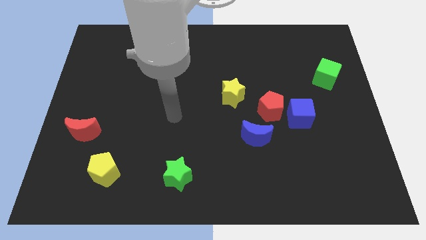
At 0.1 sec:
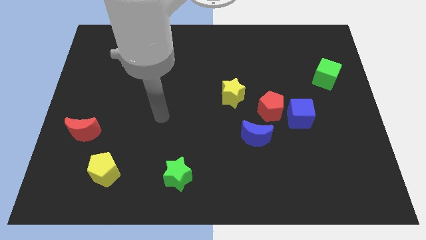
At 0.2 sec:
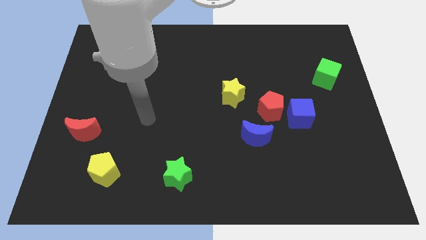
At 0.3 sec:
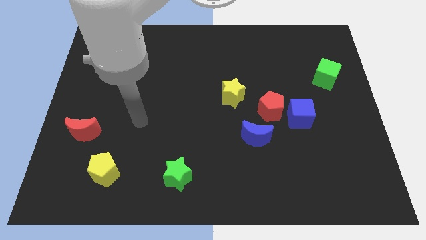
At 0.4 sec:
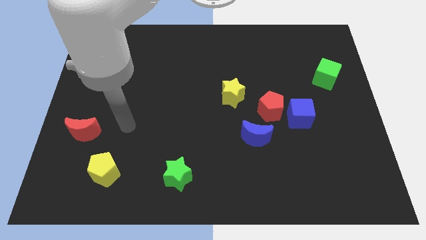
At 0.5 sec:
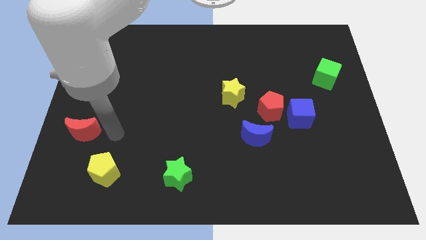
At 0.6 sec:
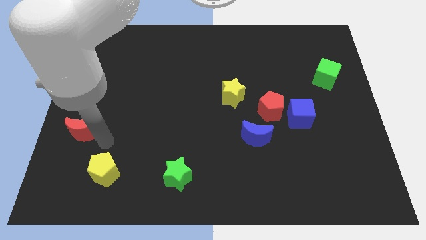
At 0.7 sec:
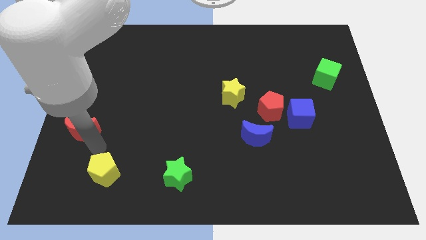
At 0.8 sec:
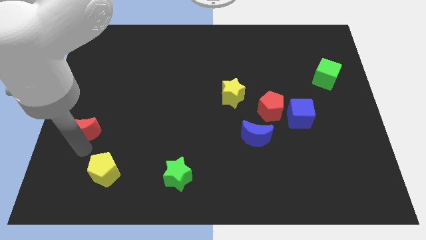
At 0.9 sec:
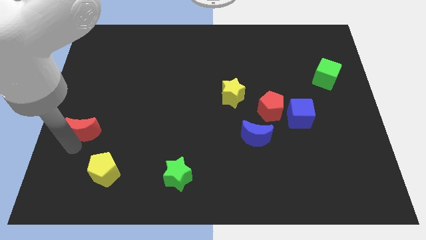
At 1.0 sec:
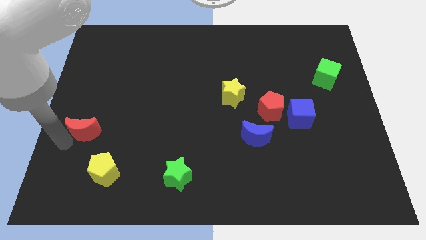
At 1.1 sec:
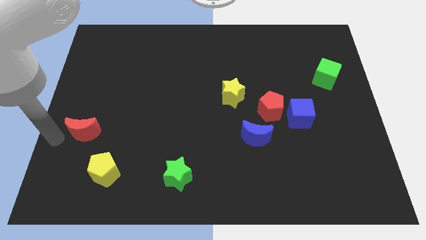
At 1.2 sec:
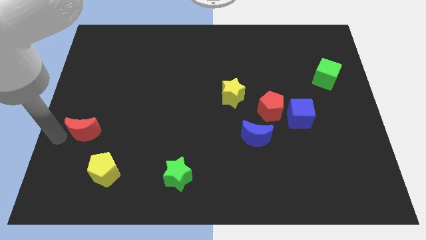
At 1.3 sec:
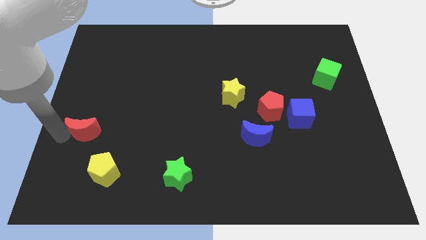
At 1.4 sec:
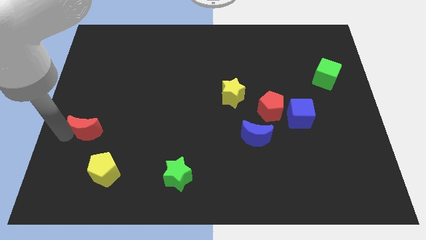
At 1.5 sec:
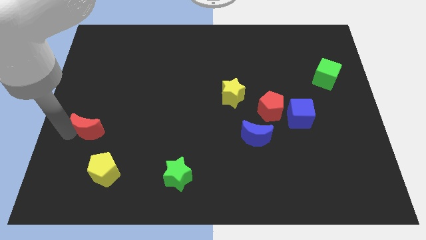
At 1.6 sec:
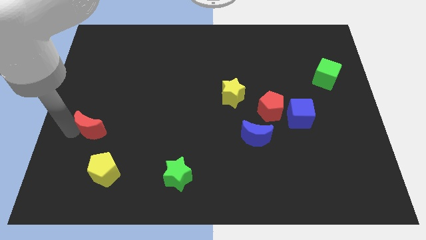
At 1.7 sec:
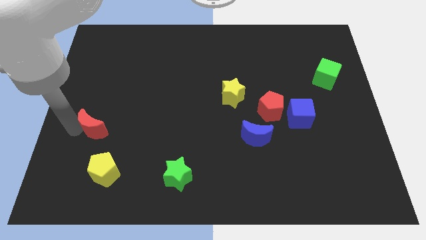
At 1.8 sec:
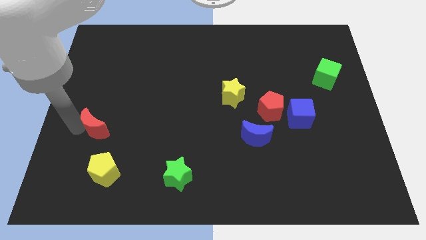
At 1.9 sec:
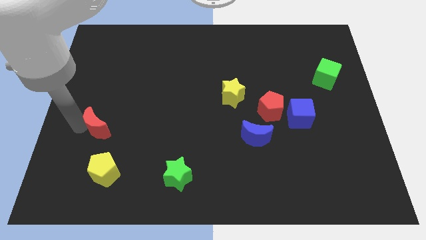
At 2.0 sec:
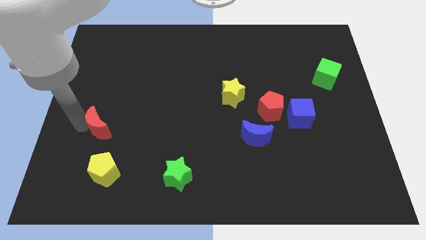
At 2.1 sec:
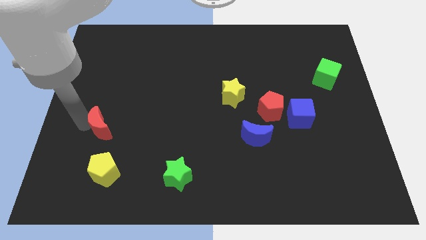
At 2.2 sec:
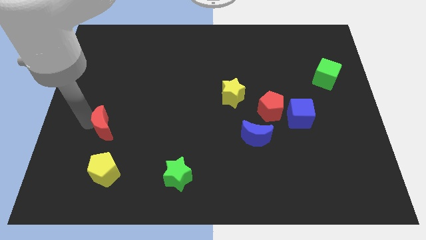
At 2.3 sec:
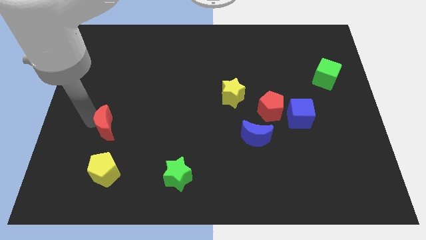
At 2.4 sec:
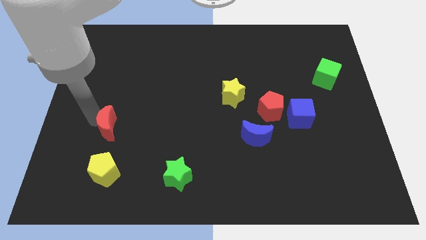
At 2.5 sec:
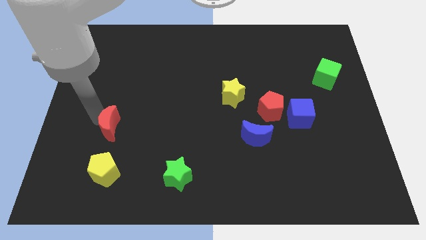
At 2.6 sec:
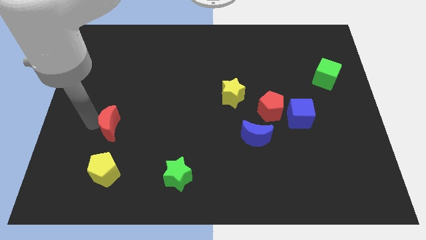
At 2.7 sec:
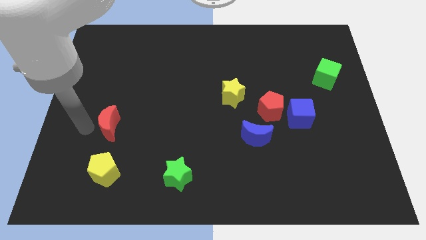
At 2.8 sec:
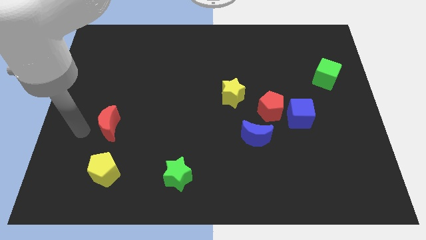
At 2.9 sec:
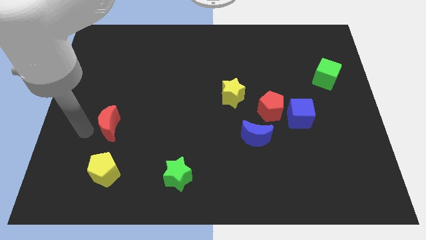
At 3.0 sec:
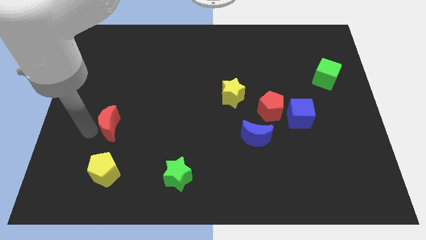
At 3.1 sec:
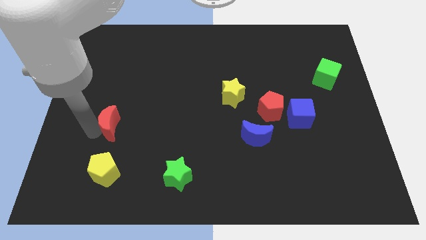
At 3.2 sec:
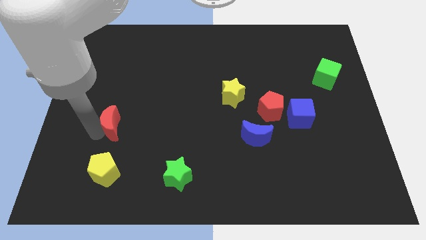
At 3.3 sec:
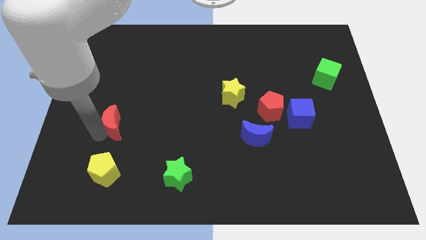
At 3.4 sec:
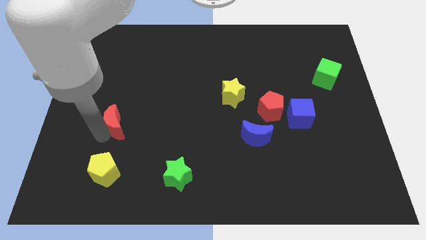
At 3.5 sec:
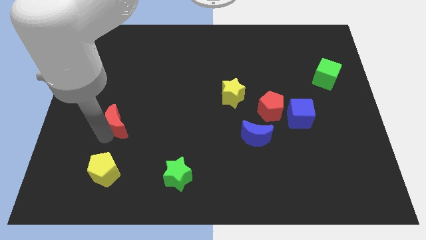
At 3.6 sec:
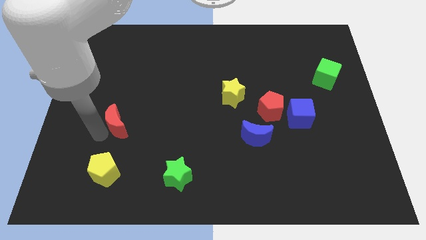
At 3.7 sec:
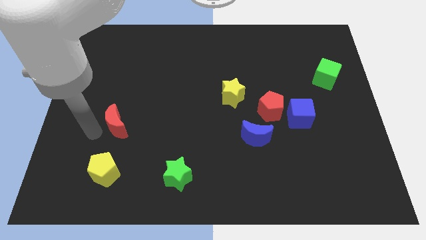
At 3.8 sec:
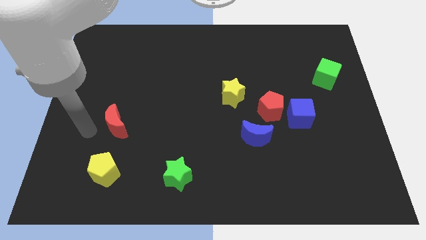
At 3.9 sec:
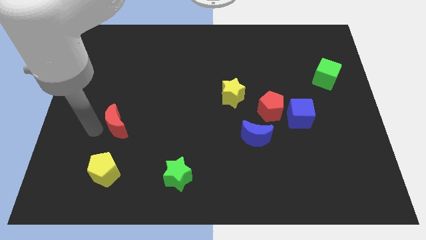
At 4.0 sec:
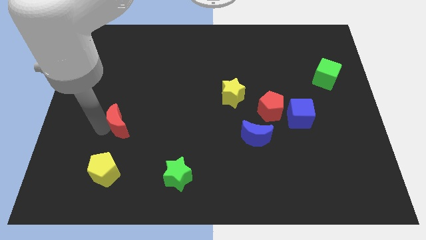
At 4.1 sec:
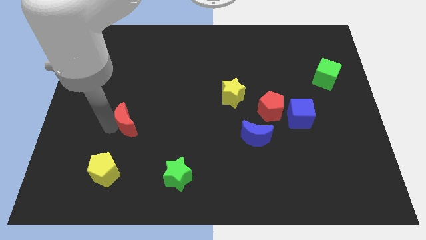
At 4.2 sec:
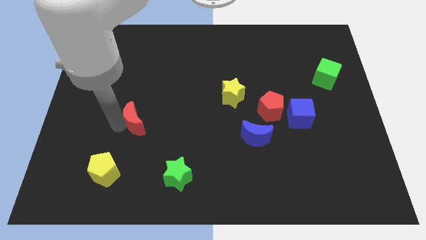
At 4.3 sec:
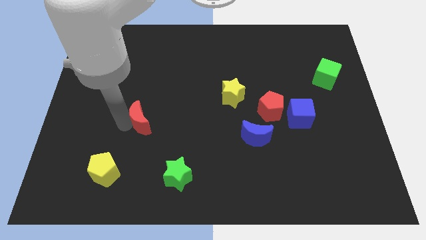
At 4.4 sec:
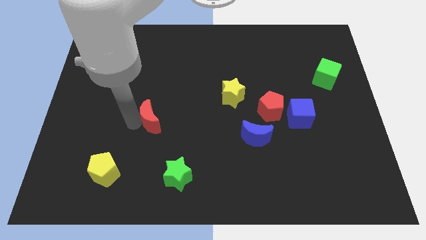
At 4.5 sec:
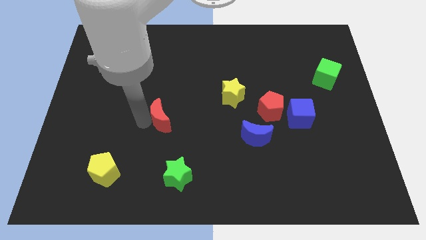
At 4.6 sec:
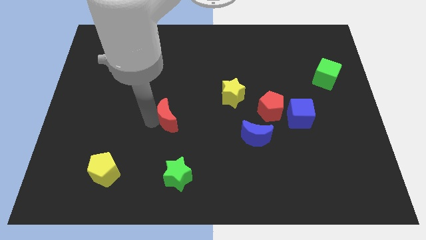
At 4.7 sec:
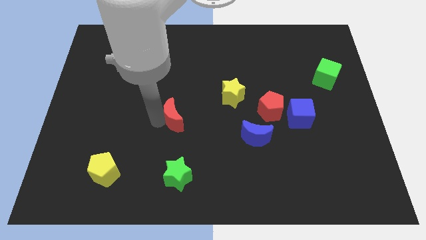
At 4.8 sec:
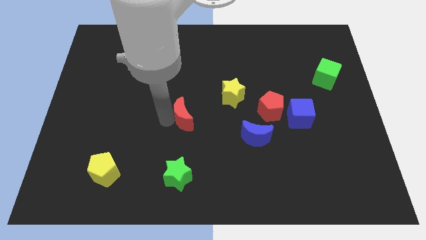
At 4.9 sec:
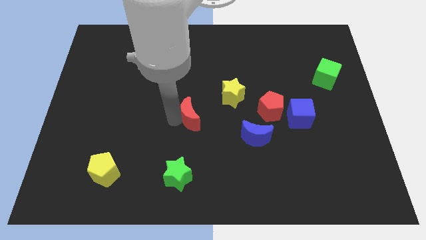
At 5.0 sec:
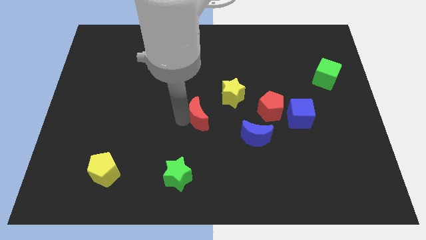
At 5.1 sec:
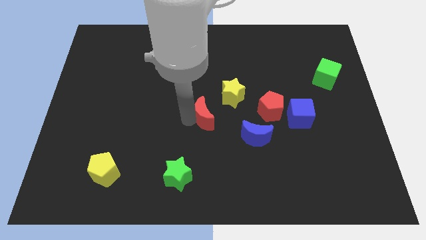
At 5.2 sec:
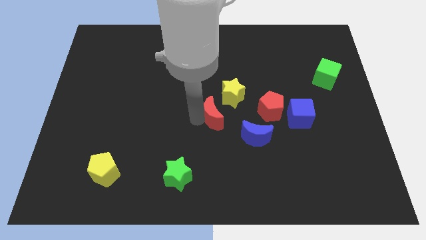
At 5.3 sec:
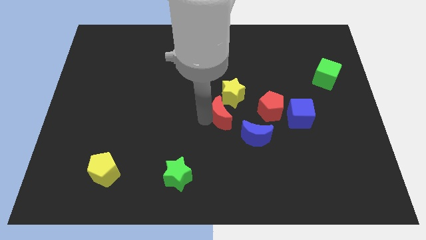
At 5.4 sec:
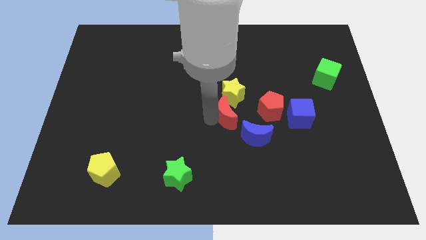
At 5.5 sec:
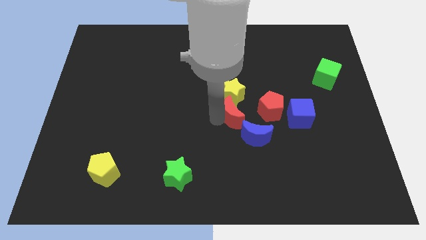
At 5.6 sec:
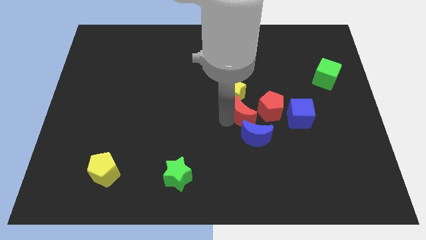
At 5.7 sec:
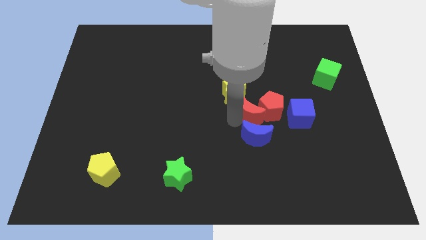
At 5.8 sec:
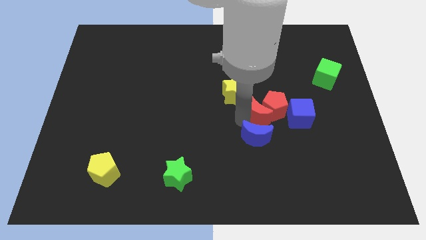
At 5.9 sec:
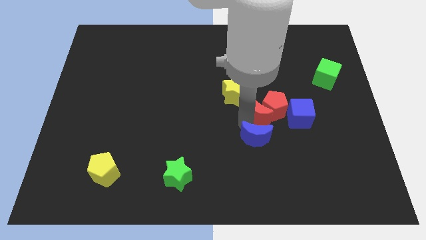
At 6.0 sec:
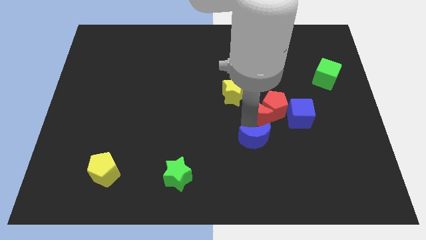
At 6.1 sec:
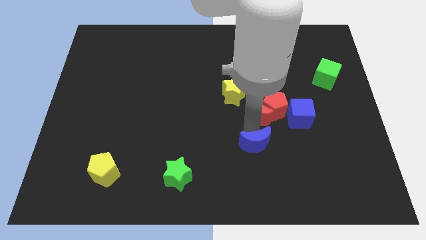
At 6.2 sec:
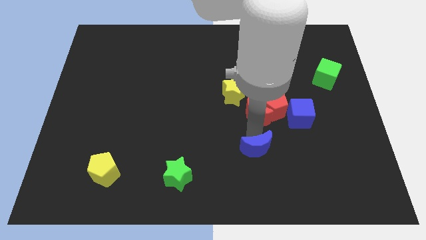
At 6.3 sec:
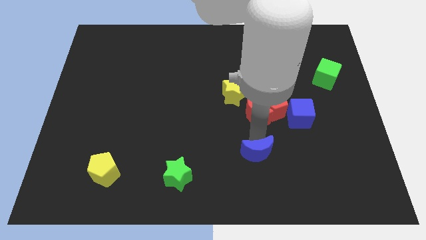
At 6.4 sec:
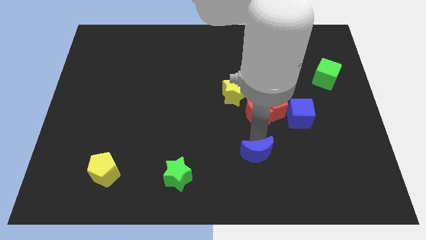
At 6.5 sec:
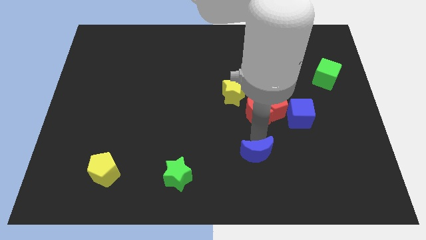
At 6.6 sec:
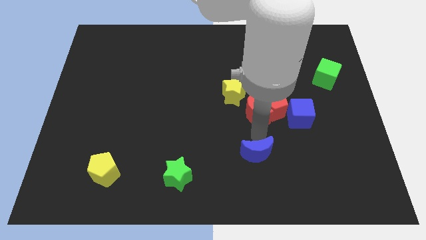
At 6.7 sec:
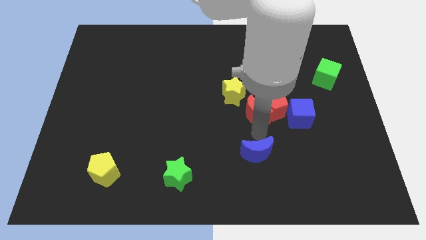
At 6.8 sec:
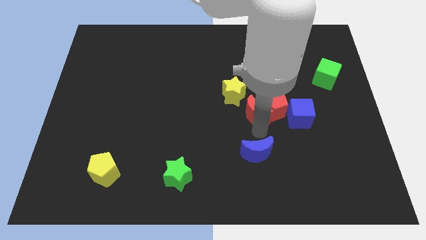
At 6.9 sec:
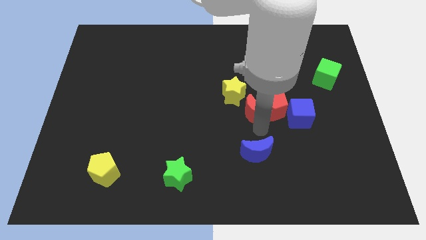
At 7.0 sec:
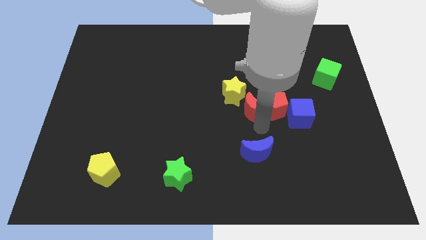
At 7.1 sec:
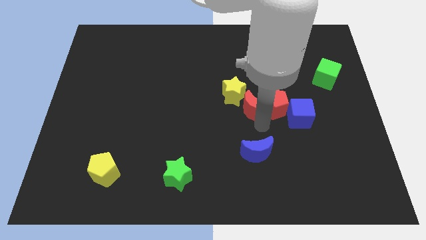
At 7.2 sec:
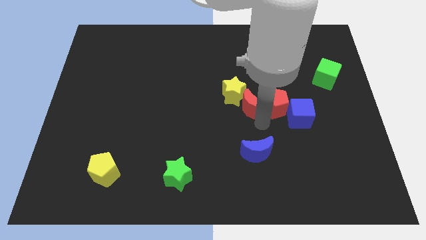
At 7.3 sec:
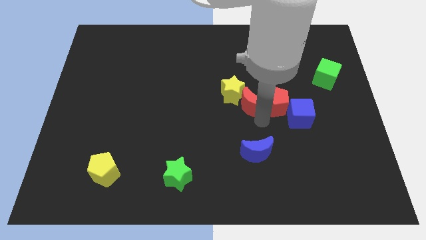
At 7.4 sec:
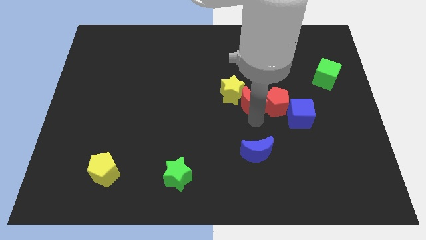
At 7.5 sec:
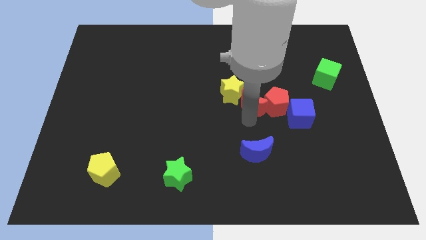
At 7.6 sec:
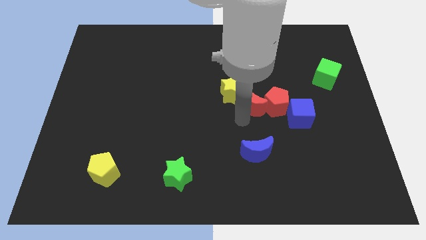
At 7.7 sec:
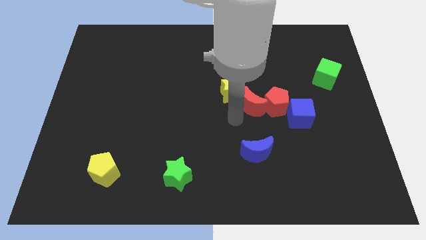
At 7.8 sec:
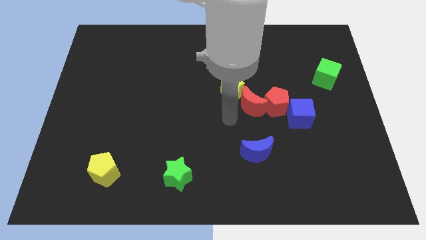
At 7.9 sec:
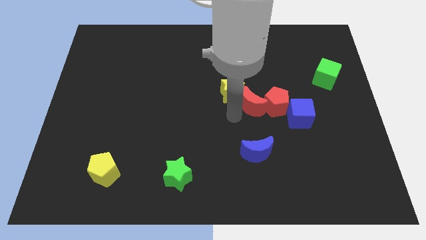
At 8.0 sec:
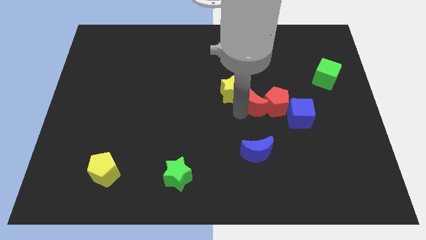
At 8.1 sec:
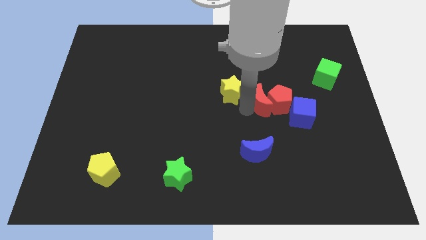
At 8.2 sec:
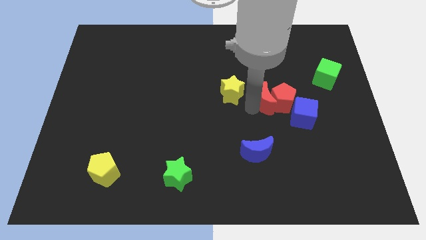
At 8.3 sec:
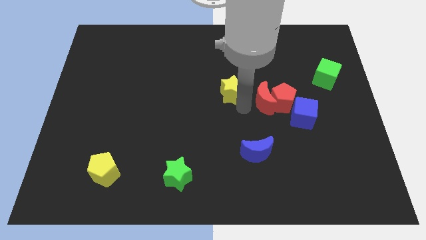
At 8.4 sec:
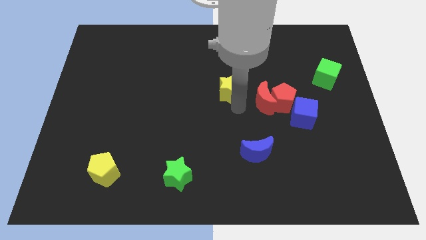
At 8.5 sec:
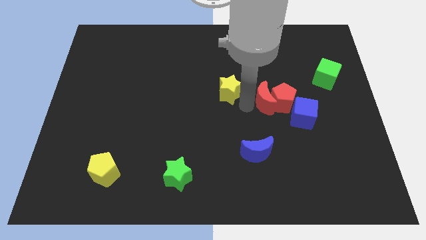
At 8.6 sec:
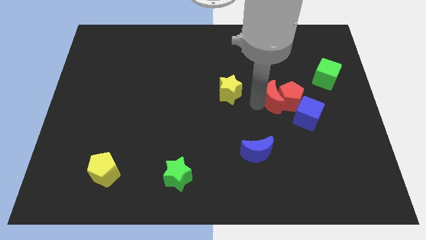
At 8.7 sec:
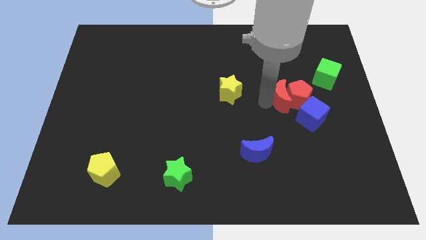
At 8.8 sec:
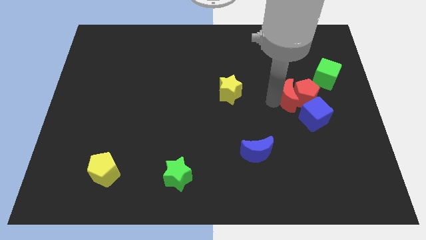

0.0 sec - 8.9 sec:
move the red moon to the bottom left side of the green cube
